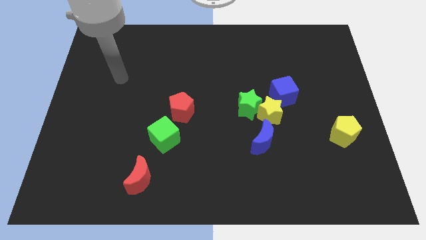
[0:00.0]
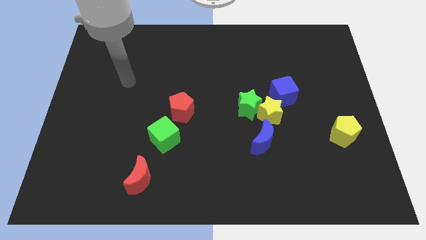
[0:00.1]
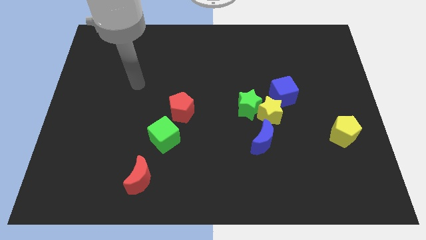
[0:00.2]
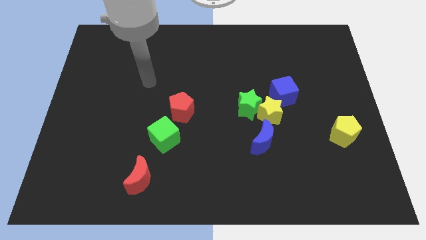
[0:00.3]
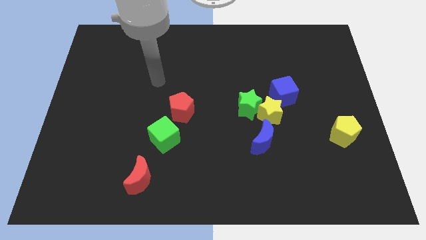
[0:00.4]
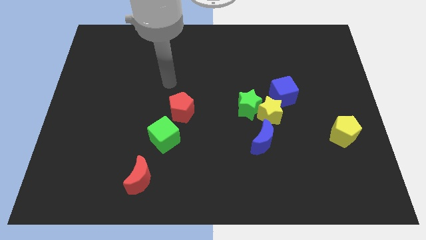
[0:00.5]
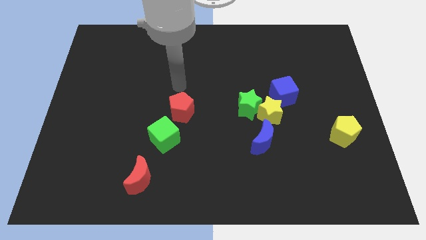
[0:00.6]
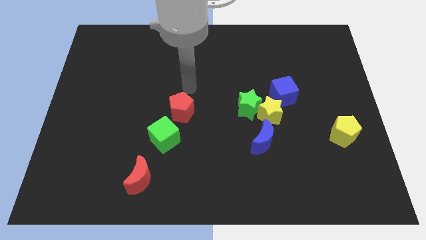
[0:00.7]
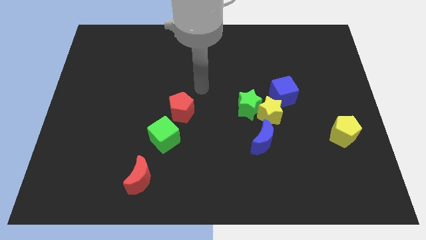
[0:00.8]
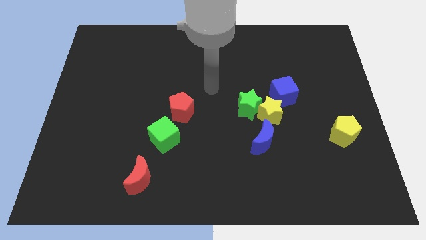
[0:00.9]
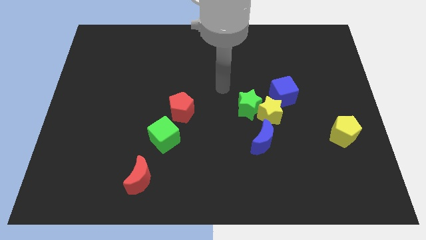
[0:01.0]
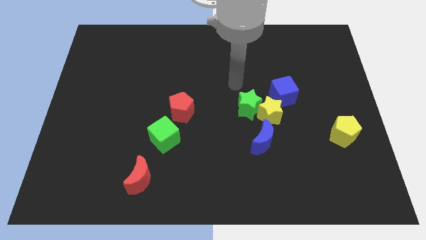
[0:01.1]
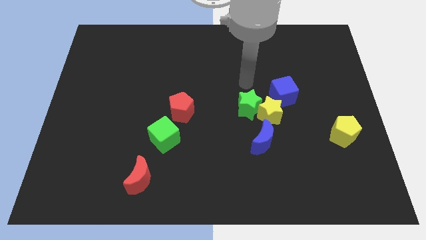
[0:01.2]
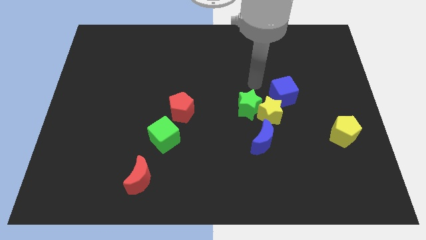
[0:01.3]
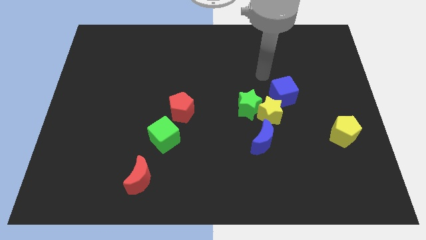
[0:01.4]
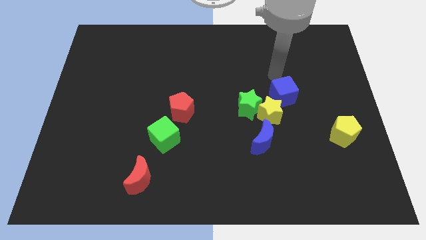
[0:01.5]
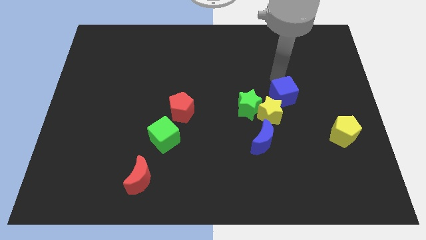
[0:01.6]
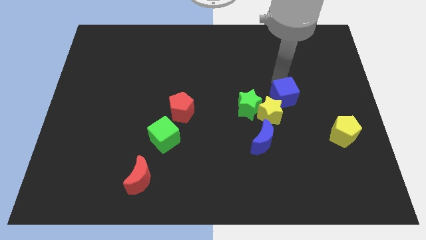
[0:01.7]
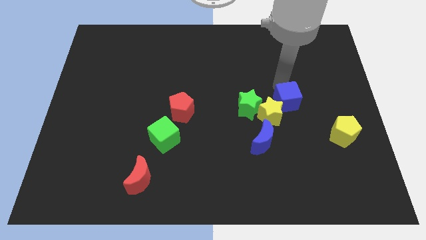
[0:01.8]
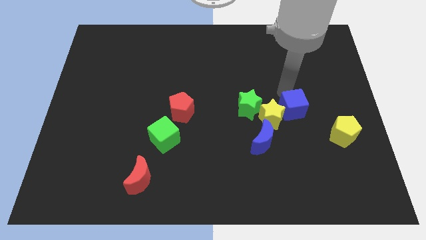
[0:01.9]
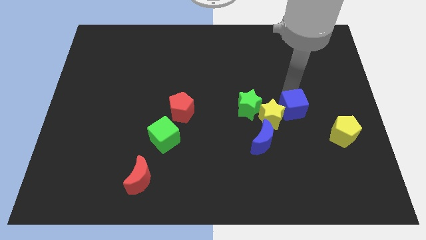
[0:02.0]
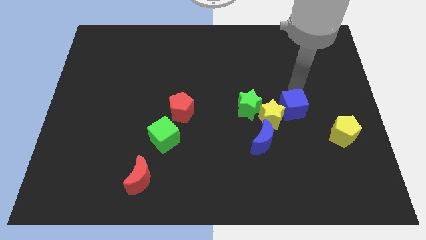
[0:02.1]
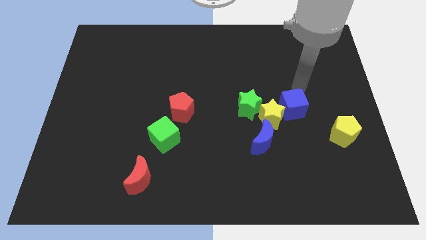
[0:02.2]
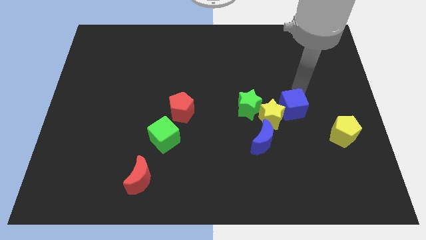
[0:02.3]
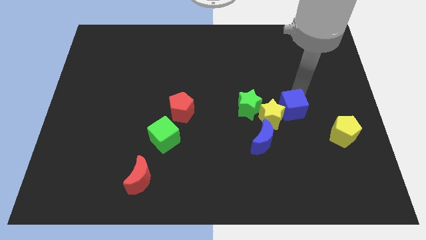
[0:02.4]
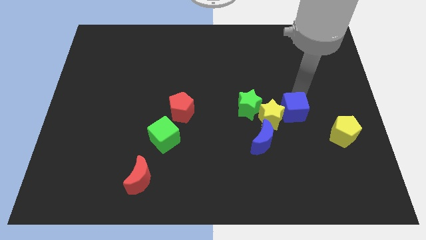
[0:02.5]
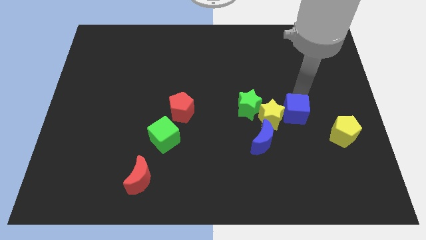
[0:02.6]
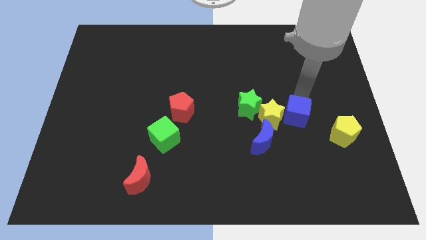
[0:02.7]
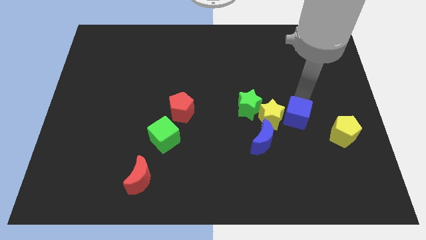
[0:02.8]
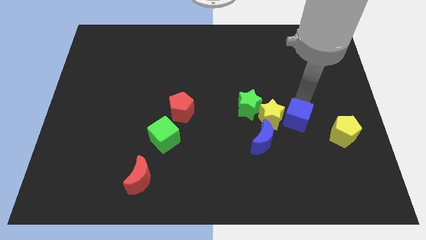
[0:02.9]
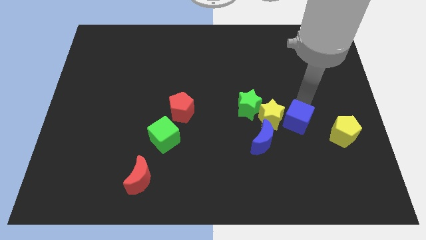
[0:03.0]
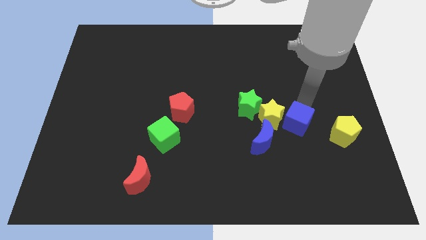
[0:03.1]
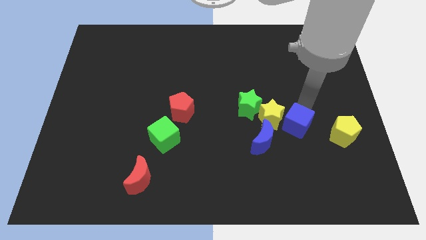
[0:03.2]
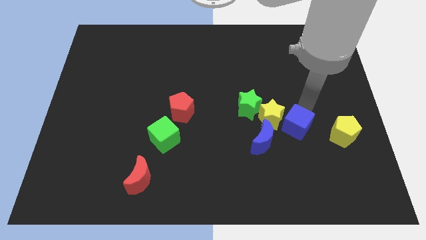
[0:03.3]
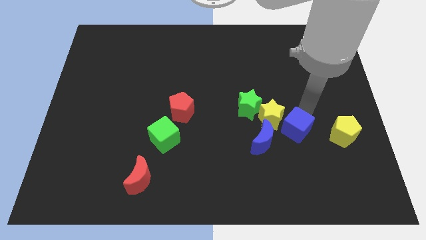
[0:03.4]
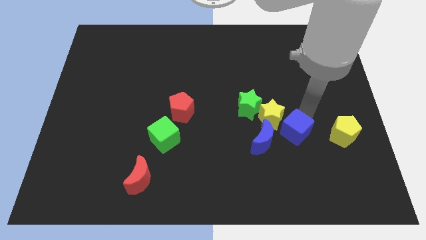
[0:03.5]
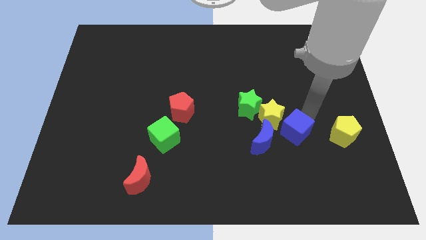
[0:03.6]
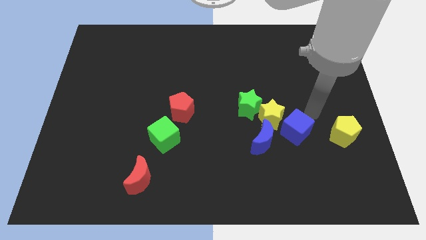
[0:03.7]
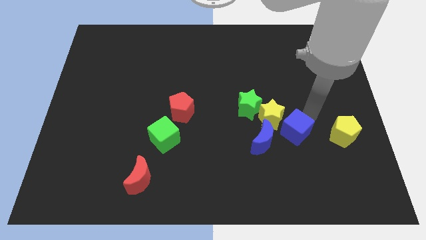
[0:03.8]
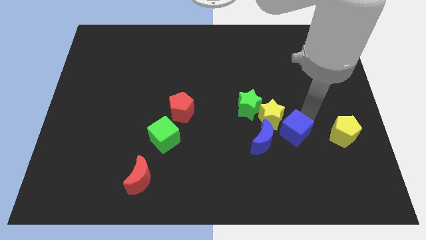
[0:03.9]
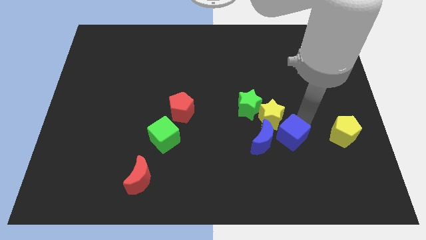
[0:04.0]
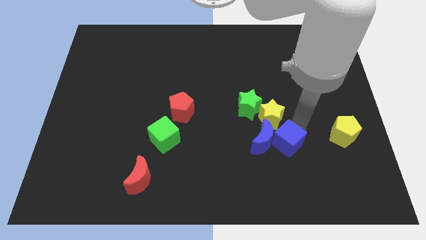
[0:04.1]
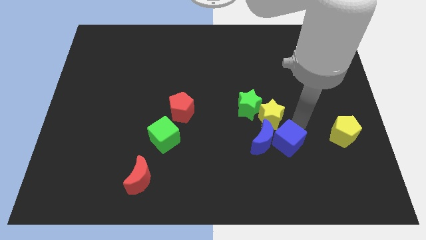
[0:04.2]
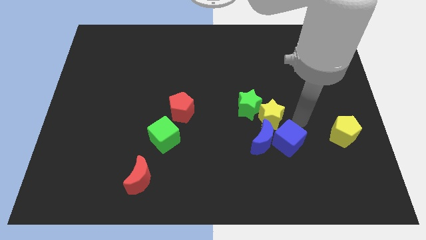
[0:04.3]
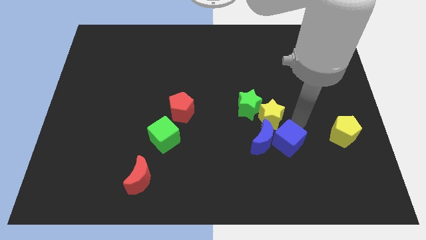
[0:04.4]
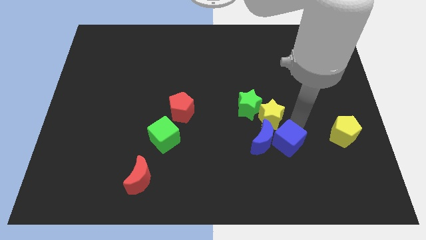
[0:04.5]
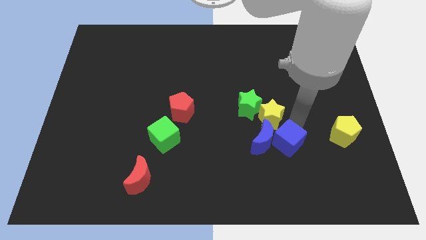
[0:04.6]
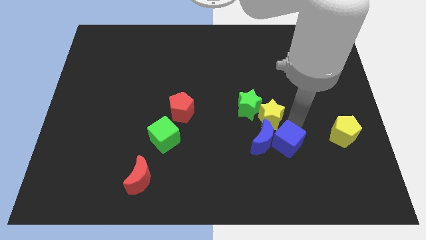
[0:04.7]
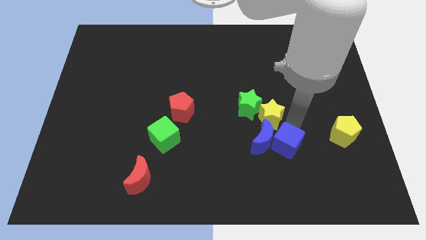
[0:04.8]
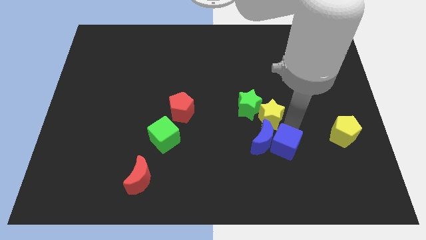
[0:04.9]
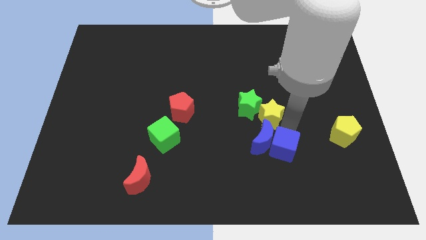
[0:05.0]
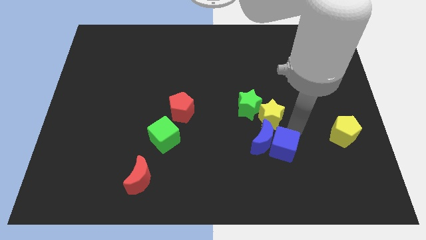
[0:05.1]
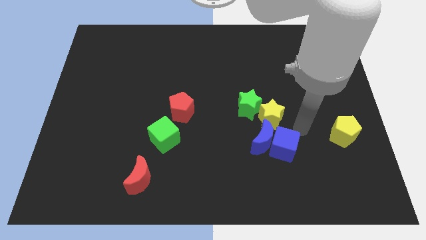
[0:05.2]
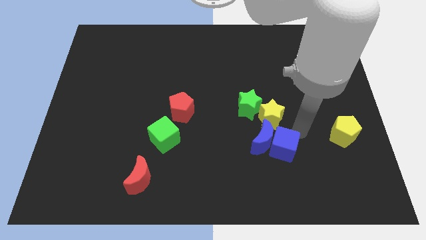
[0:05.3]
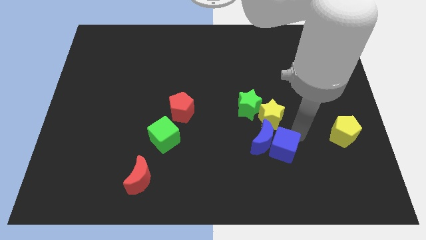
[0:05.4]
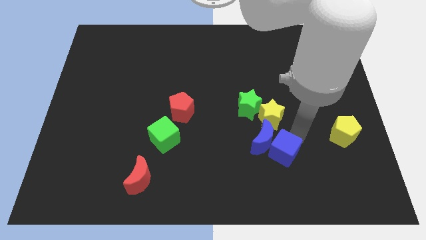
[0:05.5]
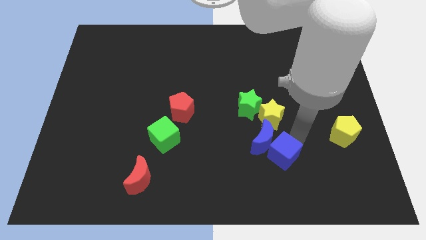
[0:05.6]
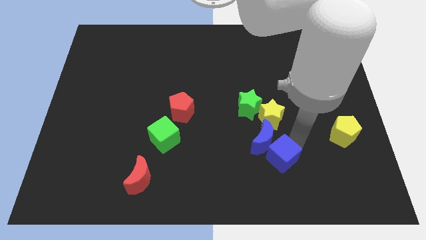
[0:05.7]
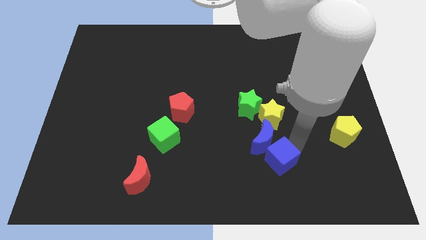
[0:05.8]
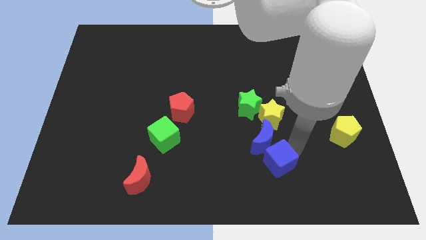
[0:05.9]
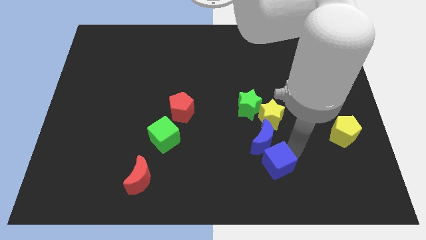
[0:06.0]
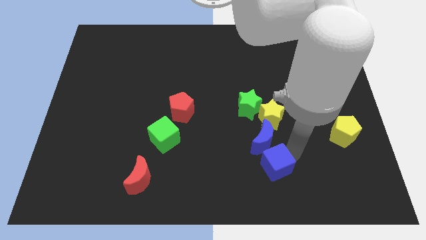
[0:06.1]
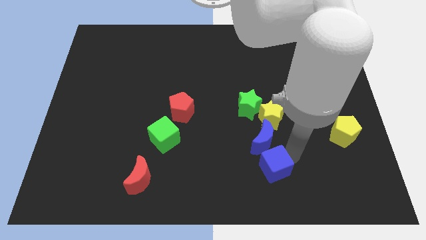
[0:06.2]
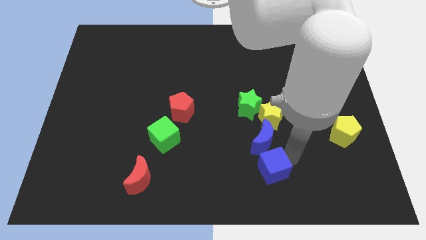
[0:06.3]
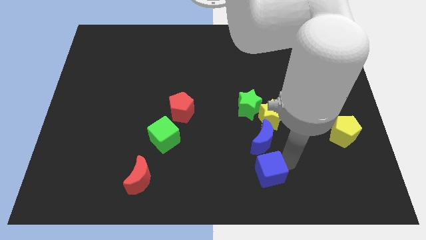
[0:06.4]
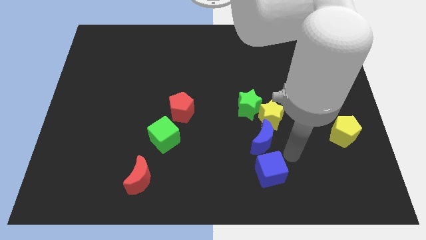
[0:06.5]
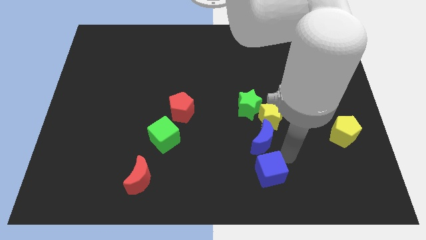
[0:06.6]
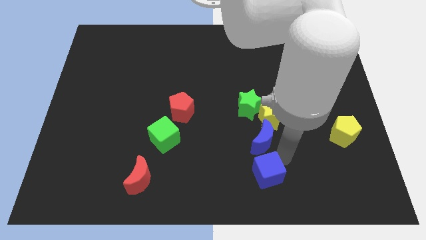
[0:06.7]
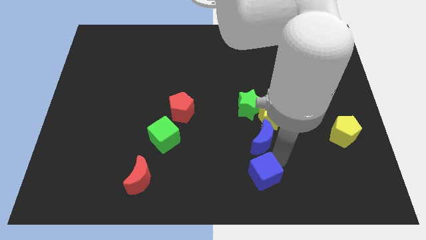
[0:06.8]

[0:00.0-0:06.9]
put the blue cube to the bottom
